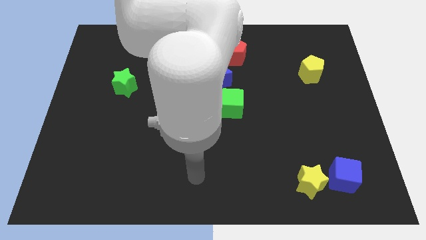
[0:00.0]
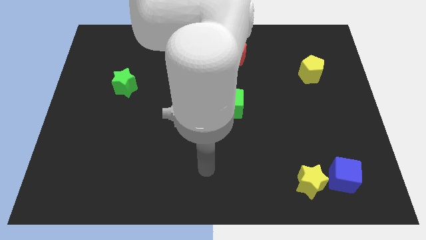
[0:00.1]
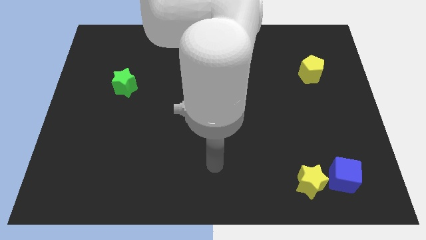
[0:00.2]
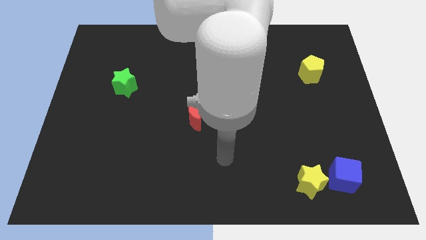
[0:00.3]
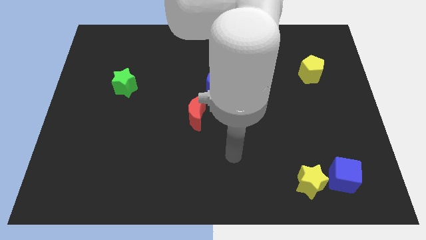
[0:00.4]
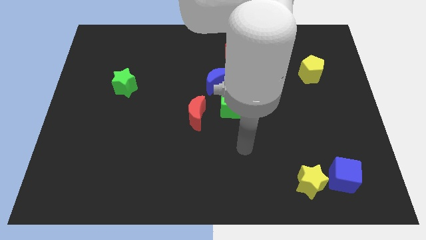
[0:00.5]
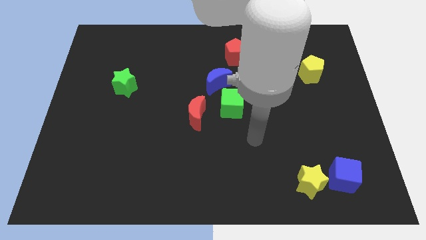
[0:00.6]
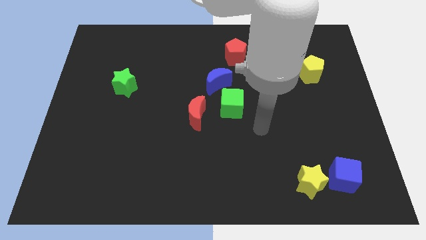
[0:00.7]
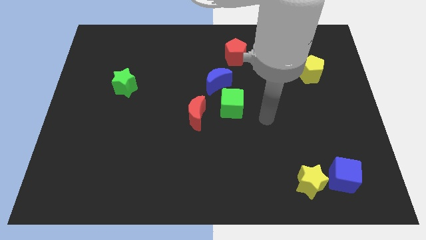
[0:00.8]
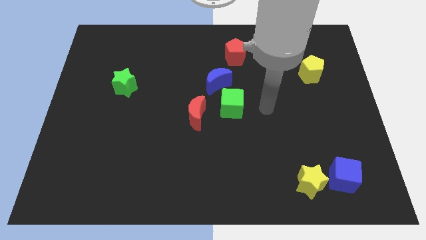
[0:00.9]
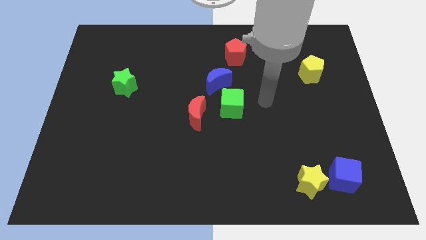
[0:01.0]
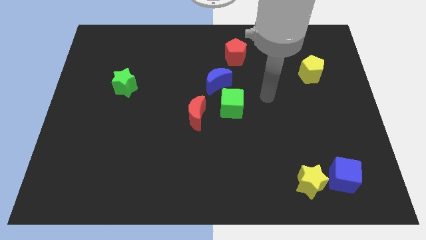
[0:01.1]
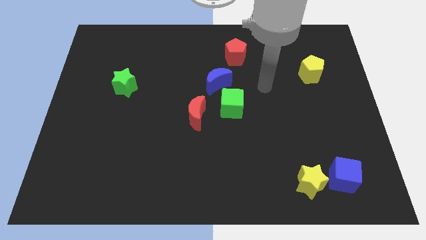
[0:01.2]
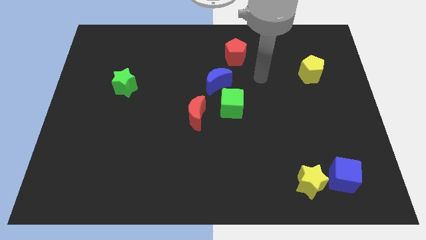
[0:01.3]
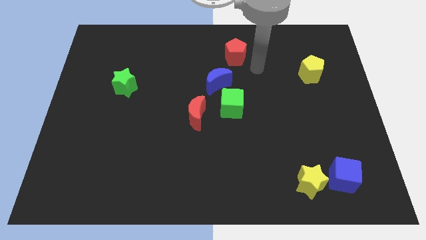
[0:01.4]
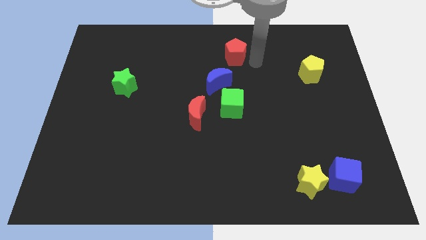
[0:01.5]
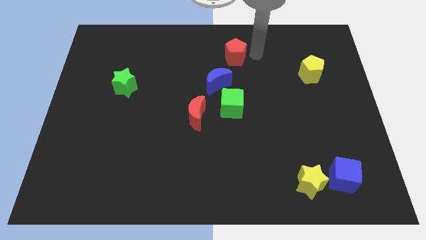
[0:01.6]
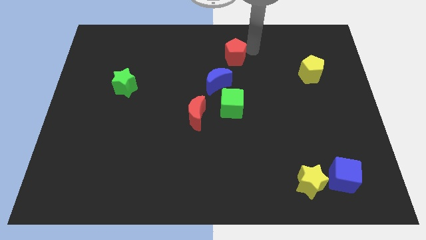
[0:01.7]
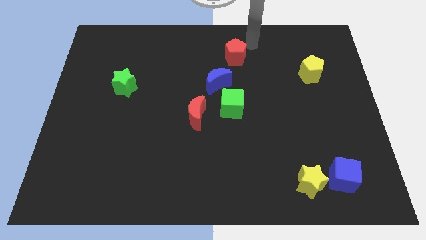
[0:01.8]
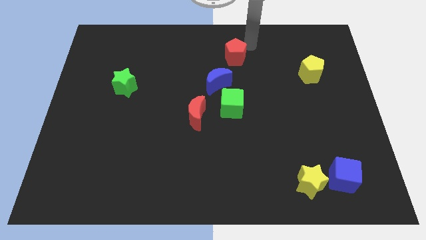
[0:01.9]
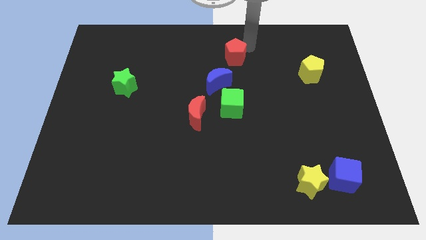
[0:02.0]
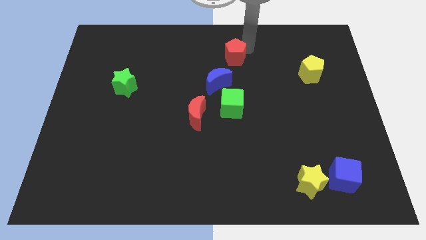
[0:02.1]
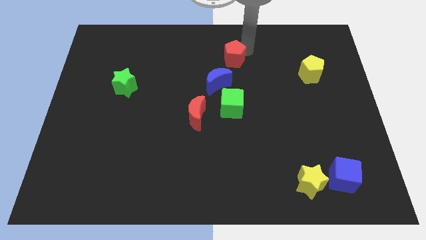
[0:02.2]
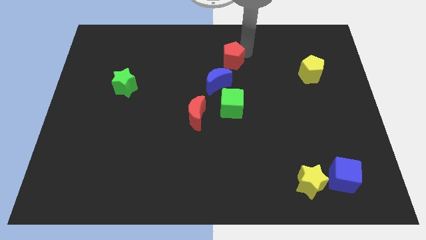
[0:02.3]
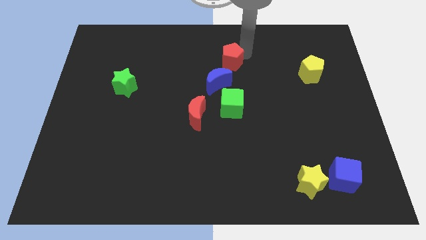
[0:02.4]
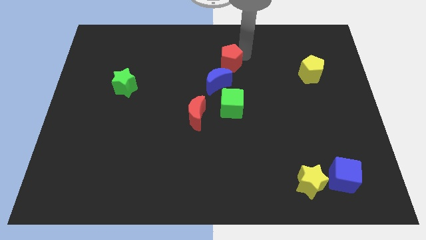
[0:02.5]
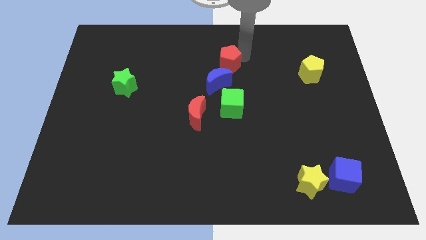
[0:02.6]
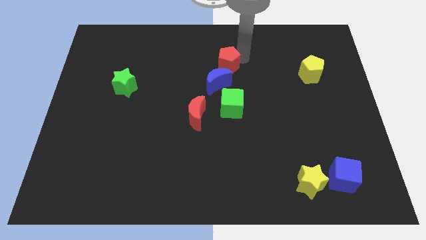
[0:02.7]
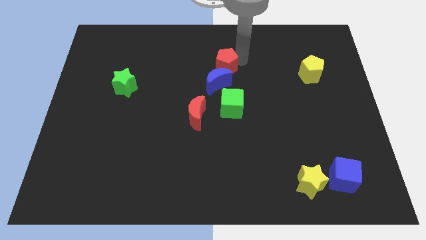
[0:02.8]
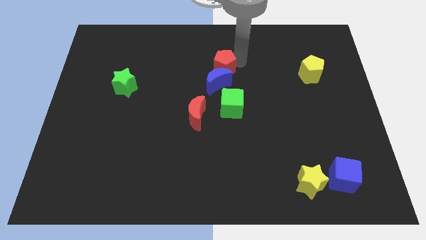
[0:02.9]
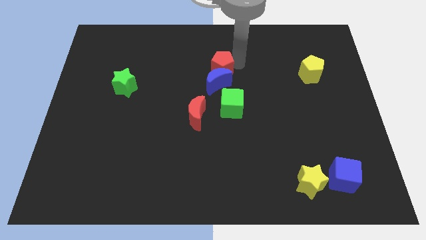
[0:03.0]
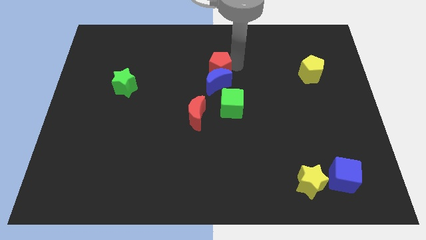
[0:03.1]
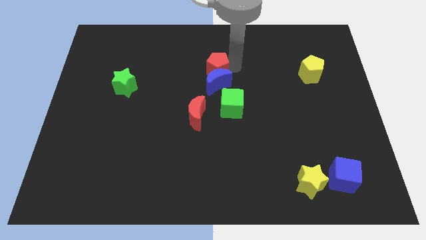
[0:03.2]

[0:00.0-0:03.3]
slide the red pentagon downwards and to the left a bit

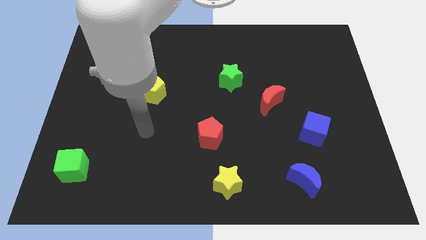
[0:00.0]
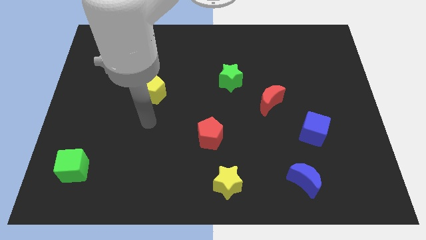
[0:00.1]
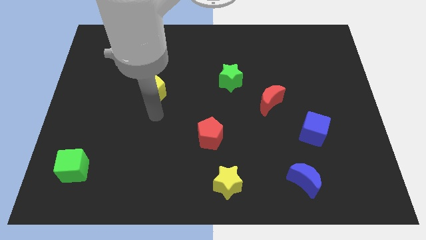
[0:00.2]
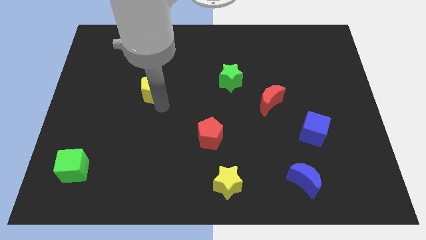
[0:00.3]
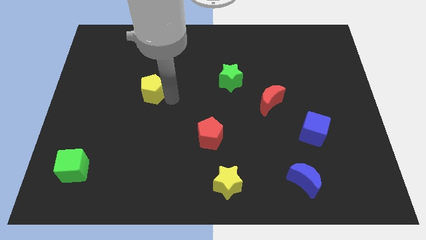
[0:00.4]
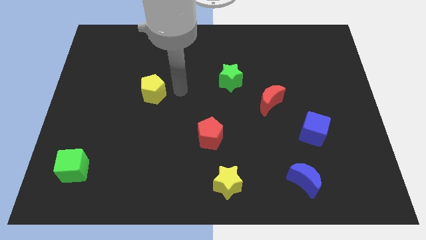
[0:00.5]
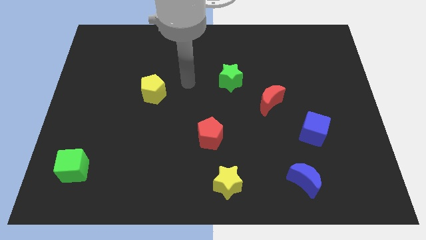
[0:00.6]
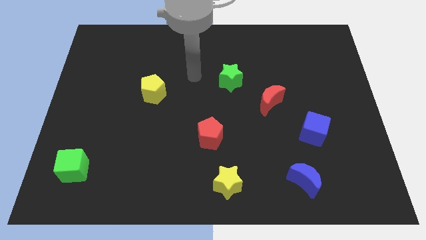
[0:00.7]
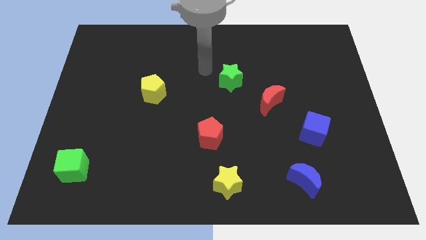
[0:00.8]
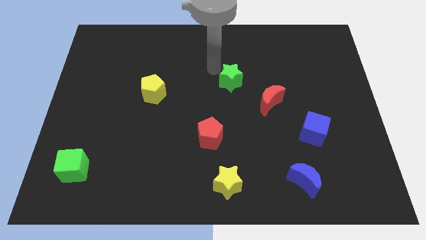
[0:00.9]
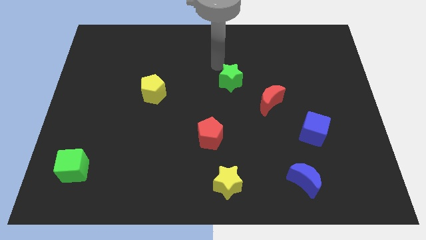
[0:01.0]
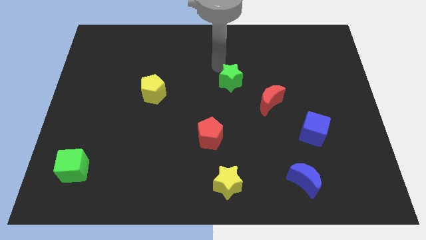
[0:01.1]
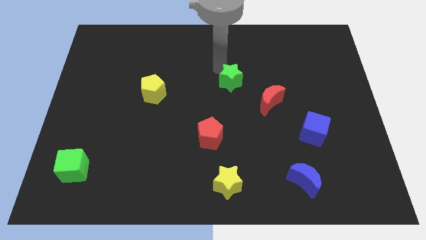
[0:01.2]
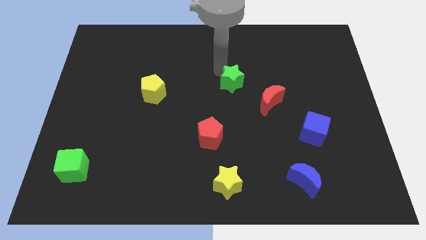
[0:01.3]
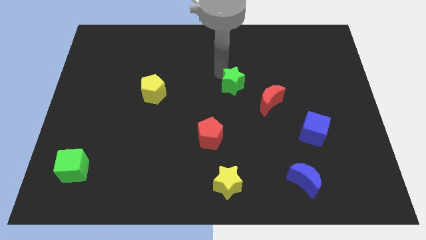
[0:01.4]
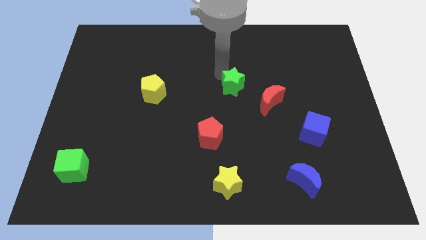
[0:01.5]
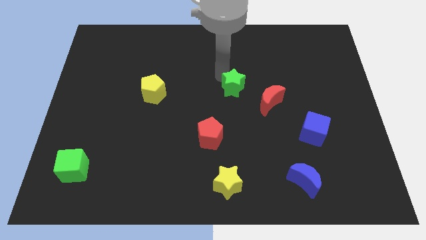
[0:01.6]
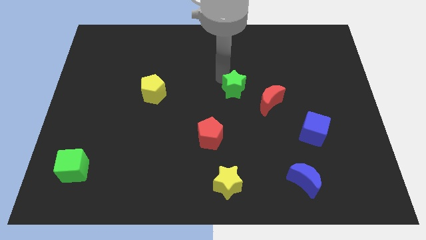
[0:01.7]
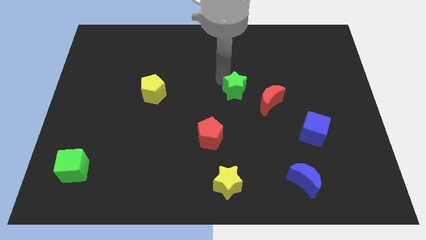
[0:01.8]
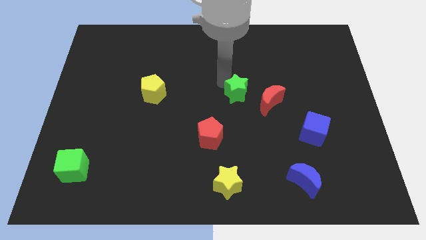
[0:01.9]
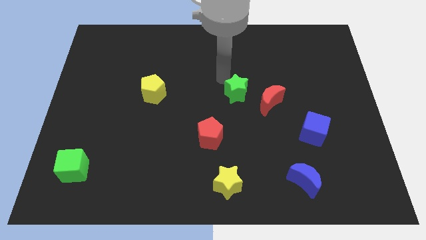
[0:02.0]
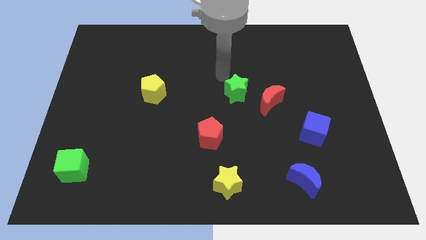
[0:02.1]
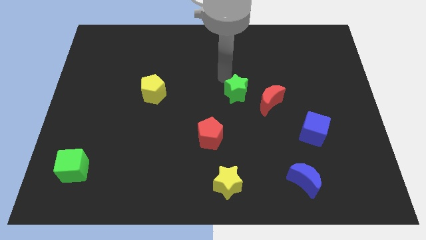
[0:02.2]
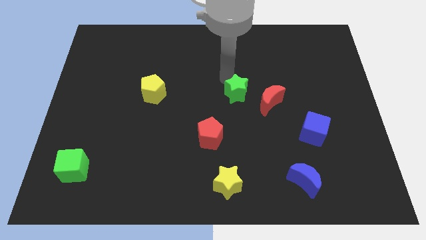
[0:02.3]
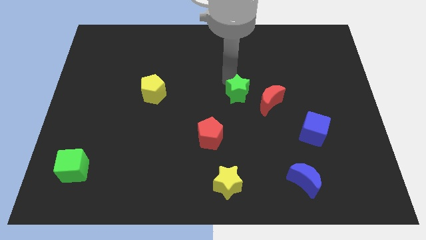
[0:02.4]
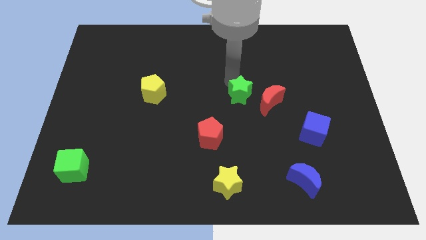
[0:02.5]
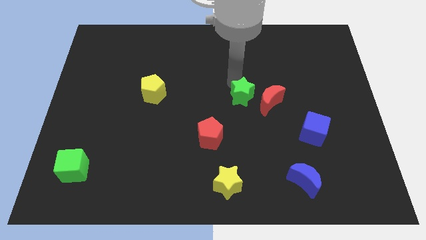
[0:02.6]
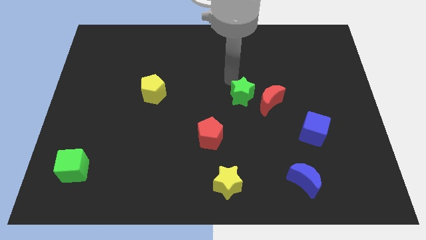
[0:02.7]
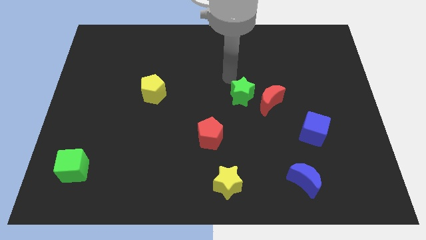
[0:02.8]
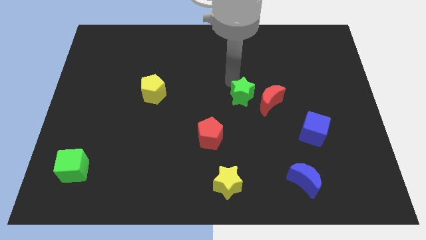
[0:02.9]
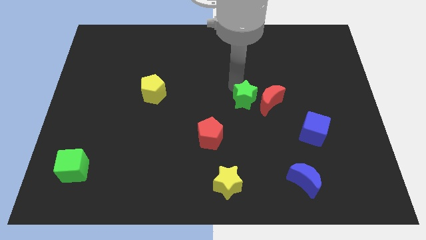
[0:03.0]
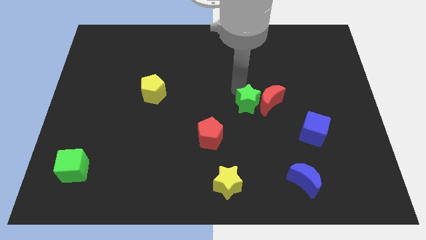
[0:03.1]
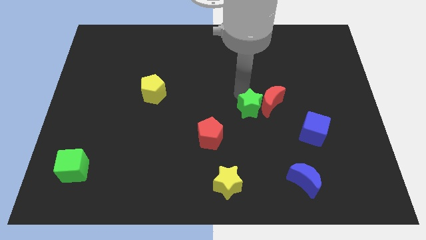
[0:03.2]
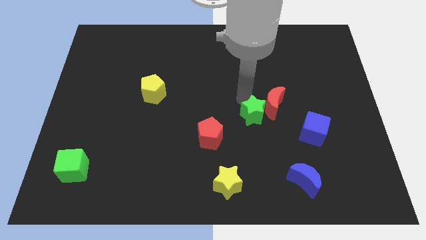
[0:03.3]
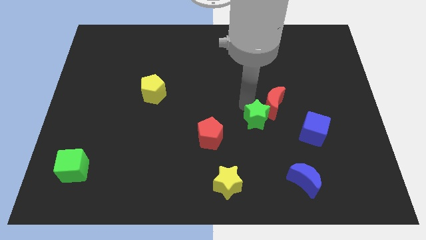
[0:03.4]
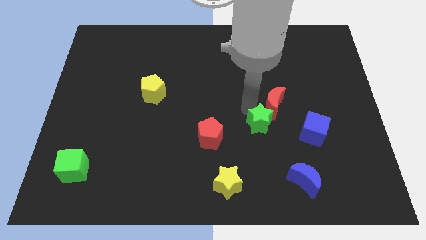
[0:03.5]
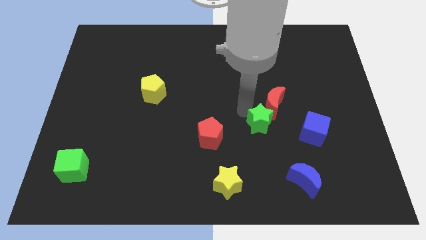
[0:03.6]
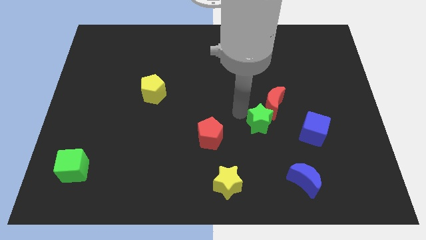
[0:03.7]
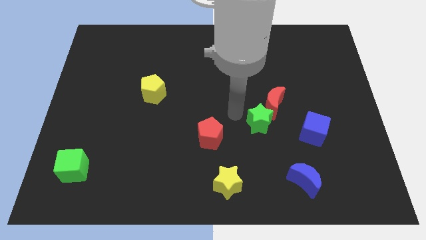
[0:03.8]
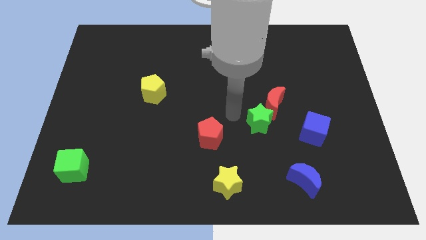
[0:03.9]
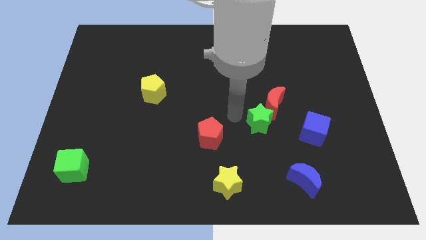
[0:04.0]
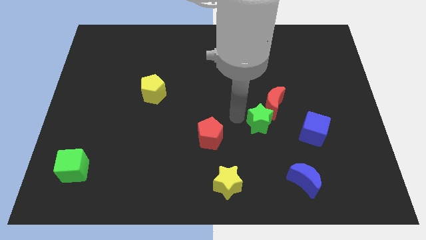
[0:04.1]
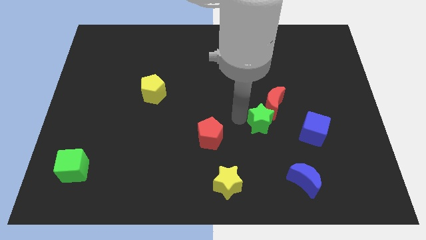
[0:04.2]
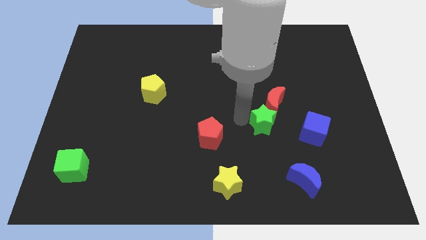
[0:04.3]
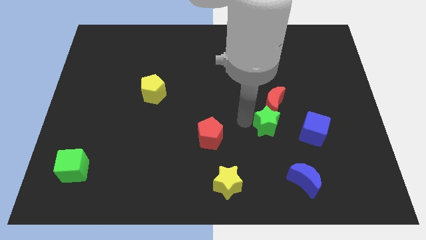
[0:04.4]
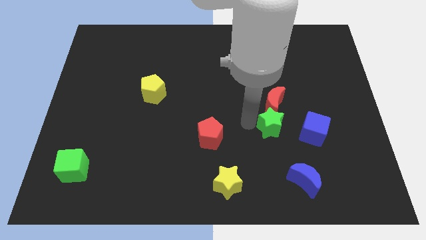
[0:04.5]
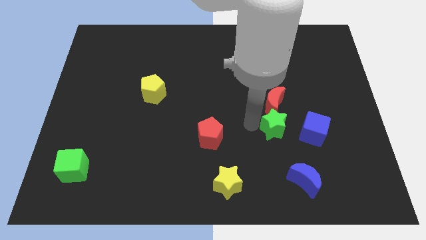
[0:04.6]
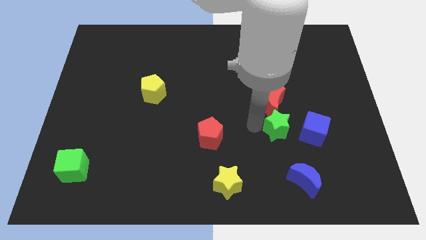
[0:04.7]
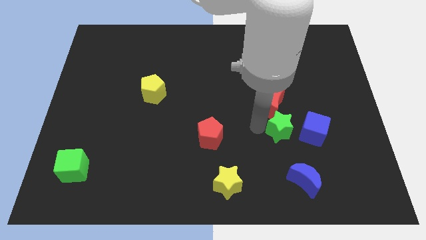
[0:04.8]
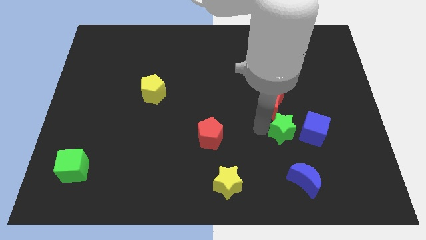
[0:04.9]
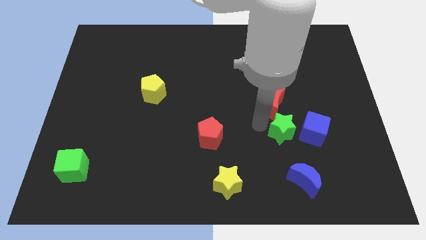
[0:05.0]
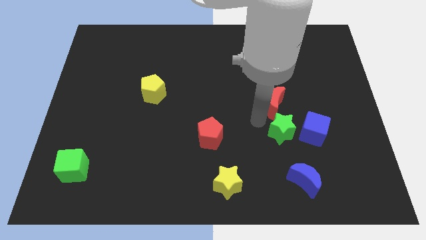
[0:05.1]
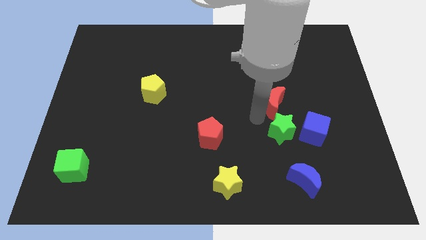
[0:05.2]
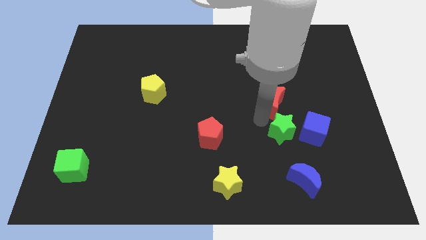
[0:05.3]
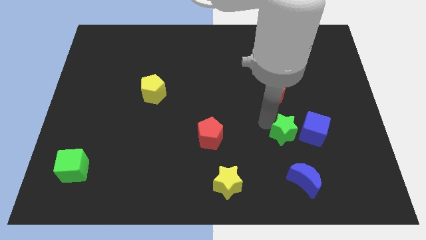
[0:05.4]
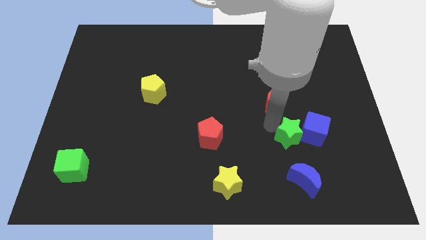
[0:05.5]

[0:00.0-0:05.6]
slide the green star diagonally downwards and to the right
